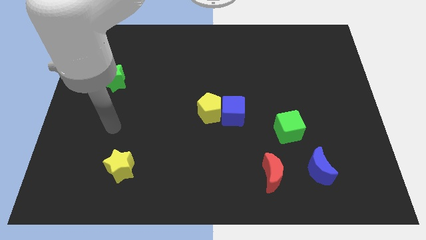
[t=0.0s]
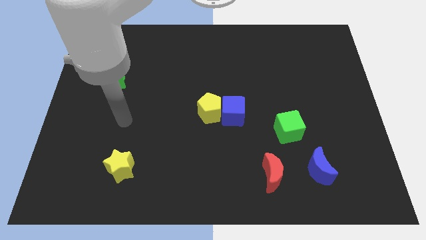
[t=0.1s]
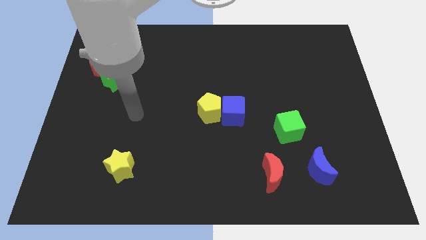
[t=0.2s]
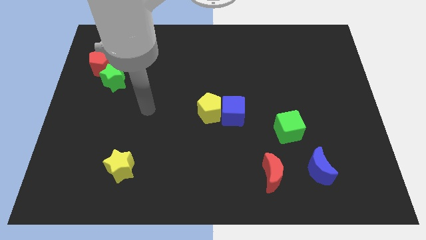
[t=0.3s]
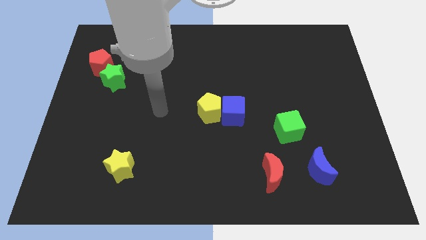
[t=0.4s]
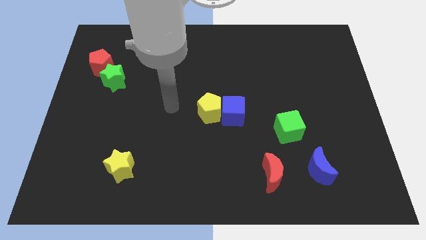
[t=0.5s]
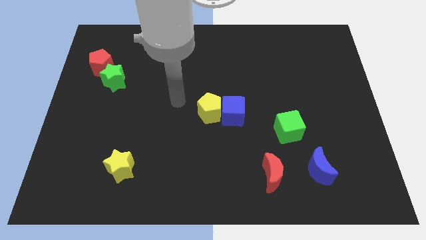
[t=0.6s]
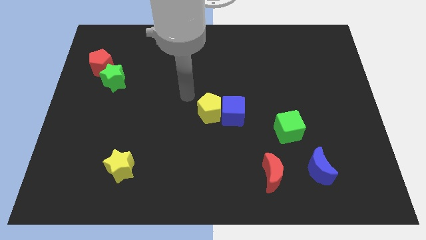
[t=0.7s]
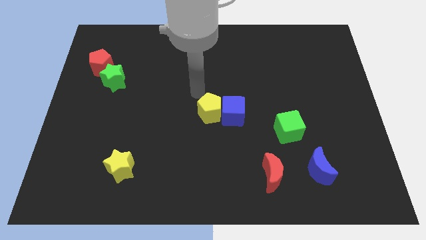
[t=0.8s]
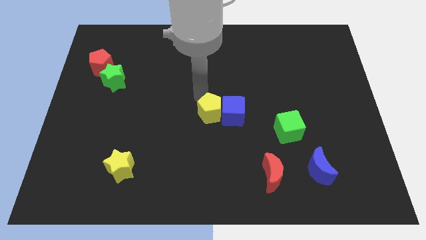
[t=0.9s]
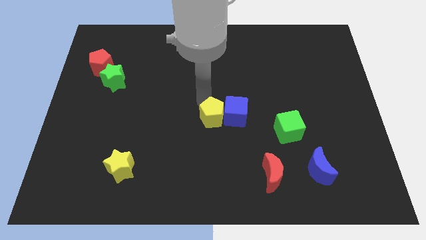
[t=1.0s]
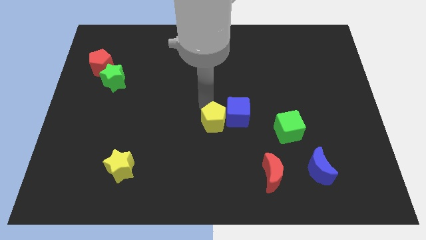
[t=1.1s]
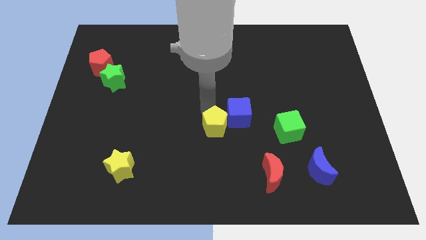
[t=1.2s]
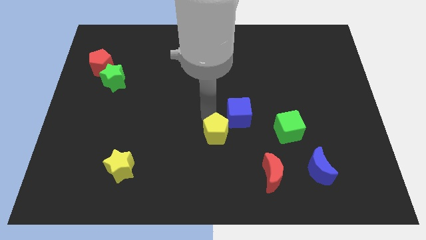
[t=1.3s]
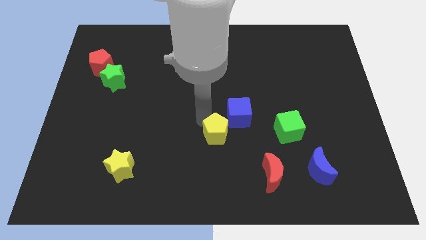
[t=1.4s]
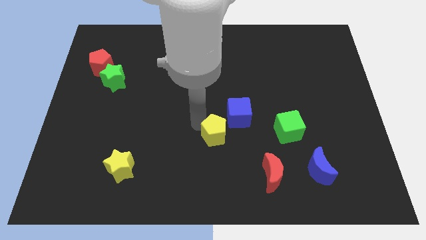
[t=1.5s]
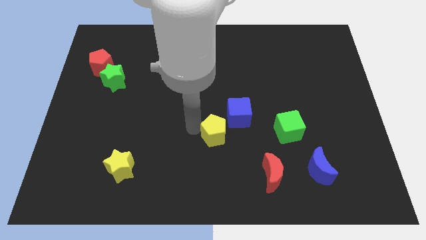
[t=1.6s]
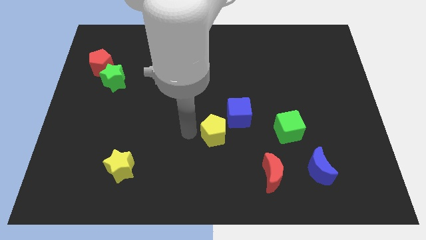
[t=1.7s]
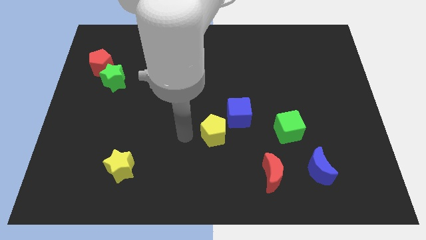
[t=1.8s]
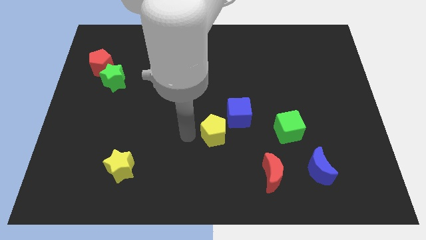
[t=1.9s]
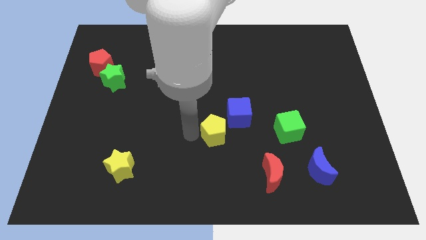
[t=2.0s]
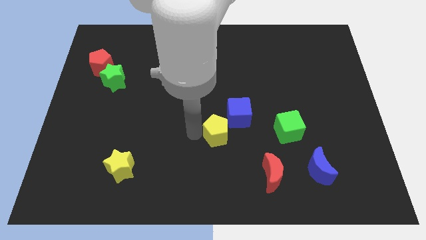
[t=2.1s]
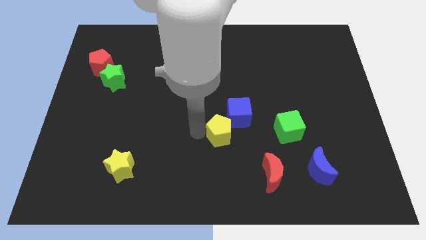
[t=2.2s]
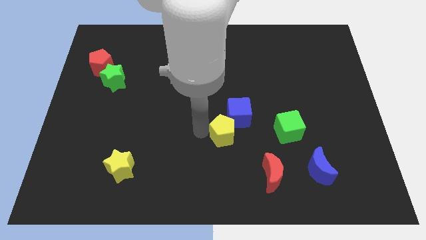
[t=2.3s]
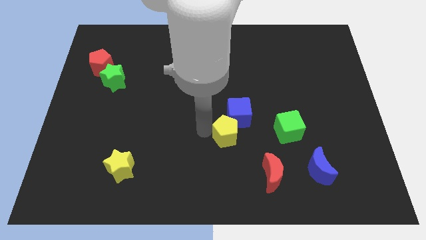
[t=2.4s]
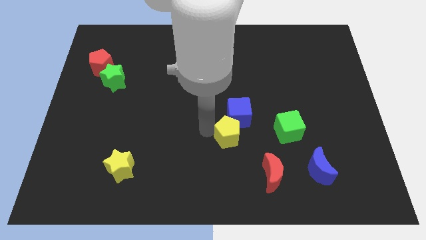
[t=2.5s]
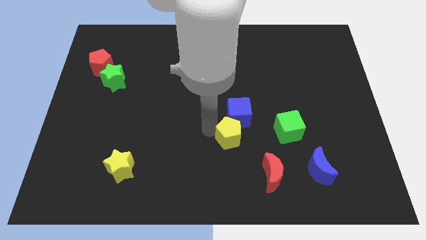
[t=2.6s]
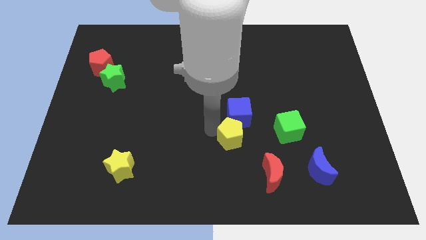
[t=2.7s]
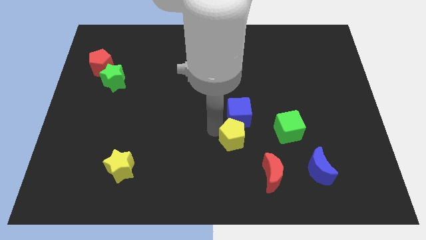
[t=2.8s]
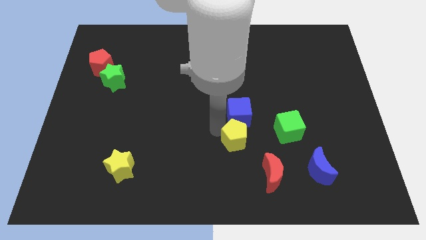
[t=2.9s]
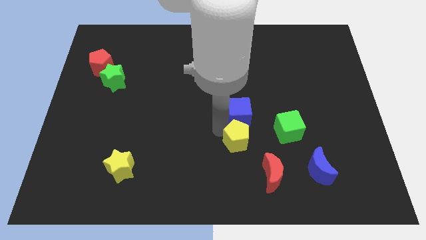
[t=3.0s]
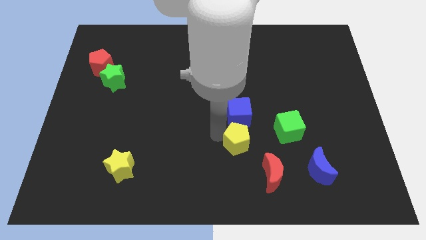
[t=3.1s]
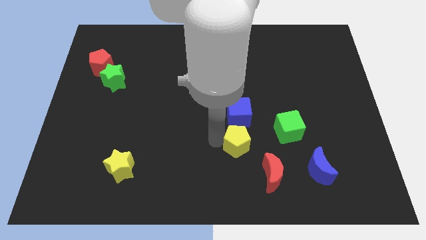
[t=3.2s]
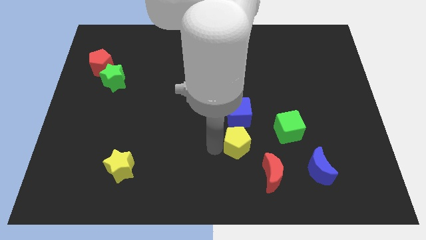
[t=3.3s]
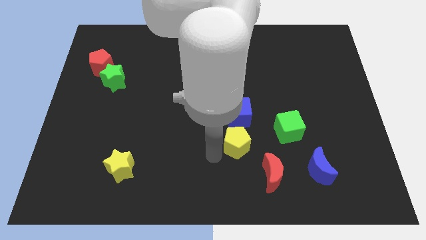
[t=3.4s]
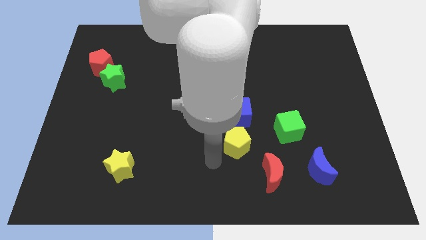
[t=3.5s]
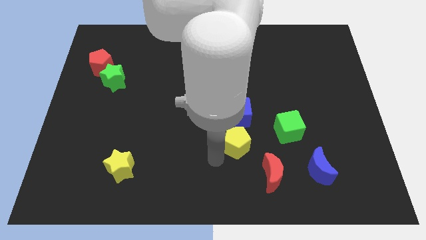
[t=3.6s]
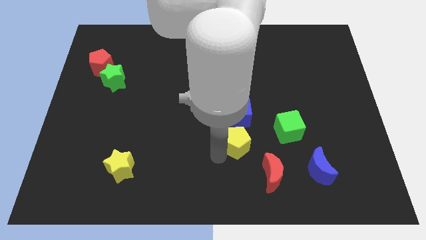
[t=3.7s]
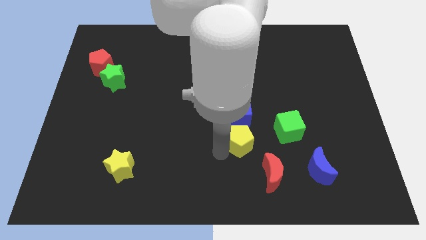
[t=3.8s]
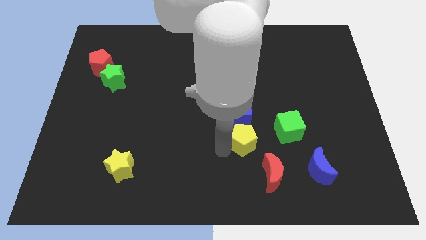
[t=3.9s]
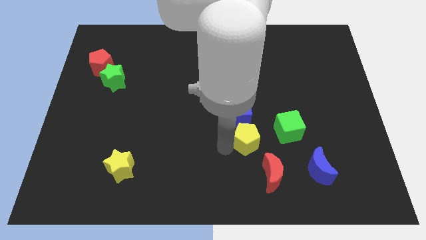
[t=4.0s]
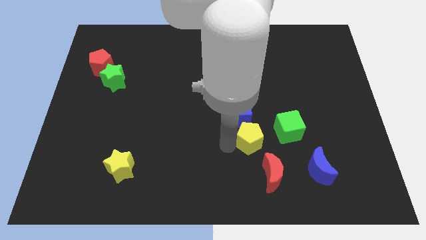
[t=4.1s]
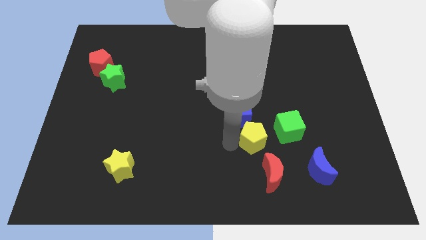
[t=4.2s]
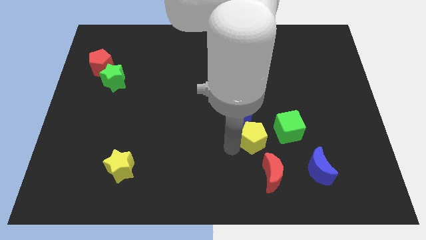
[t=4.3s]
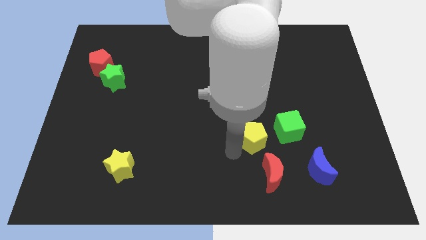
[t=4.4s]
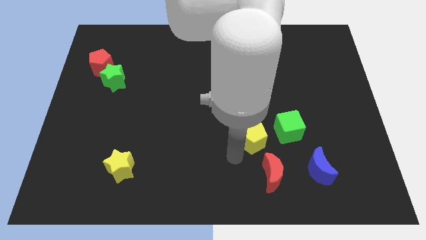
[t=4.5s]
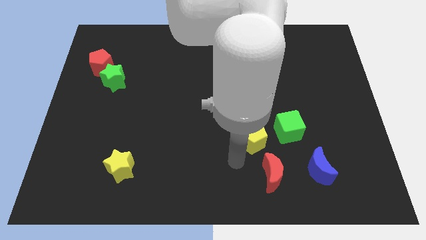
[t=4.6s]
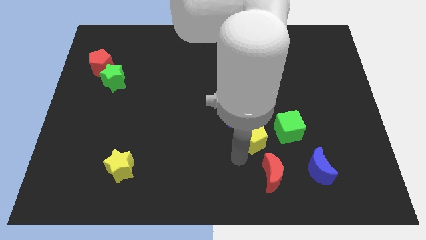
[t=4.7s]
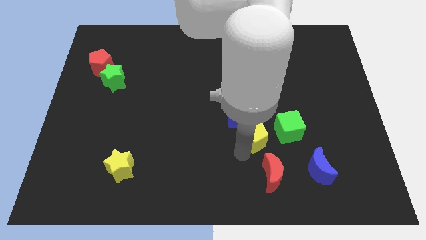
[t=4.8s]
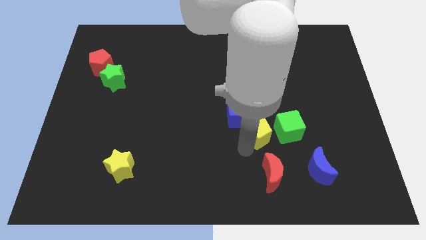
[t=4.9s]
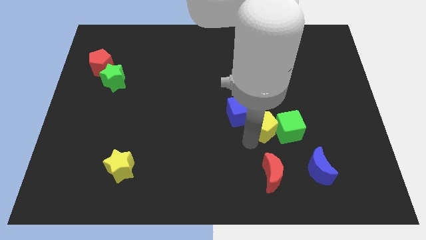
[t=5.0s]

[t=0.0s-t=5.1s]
slide the yellow pentagon just right of the blue cube

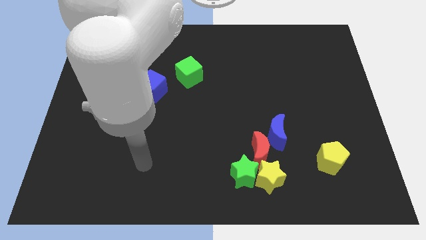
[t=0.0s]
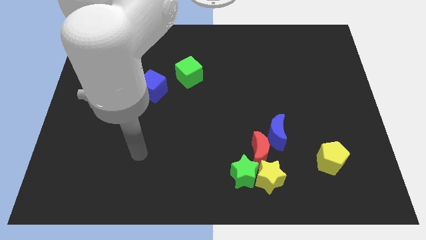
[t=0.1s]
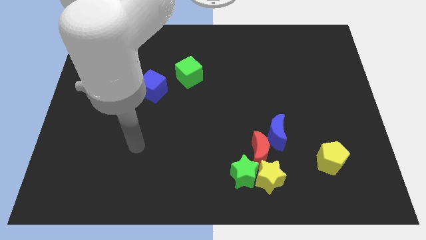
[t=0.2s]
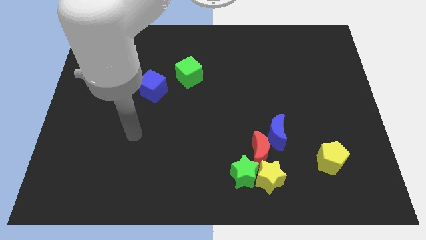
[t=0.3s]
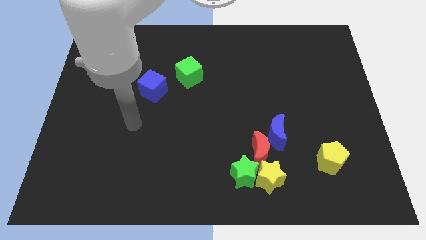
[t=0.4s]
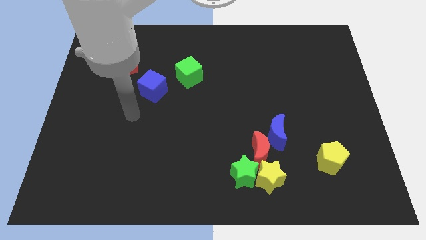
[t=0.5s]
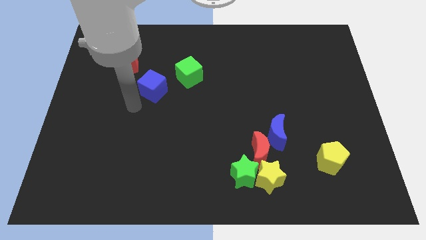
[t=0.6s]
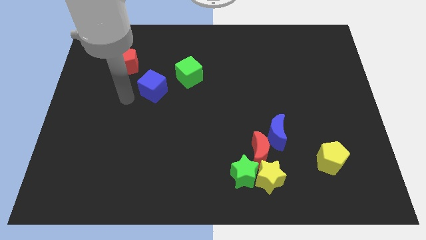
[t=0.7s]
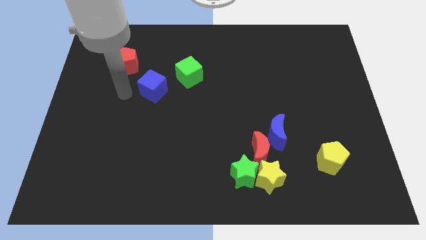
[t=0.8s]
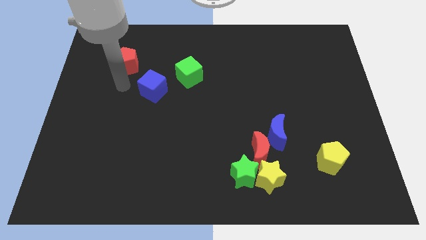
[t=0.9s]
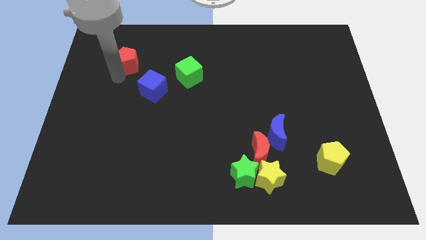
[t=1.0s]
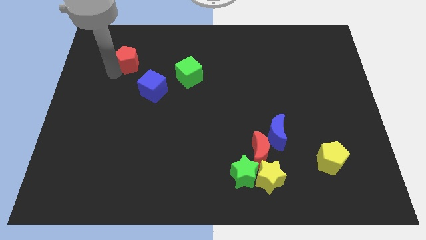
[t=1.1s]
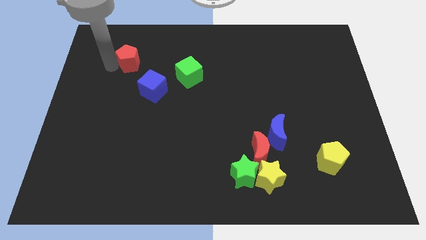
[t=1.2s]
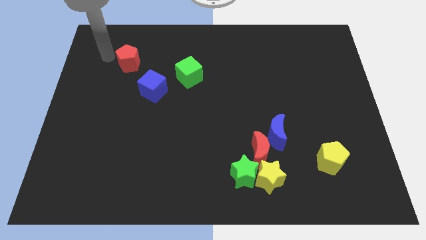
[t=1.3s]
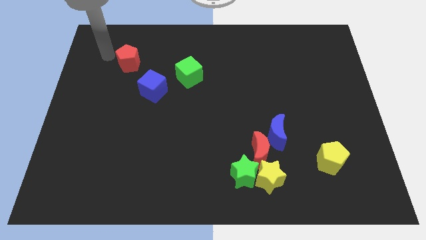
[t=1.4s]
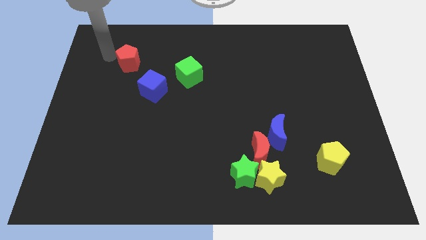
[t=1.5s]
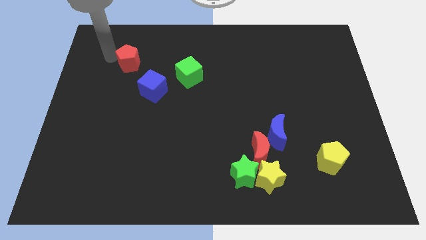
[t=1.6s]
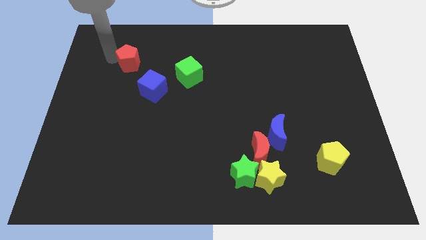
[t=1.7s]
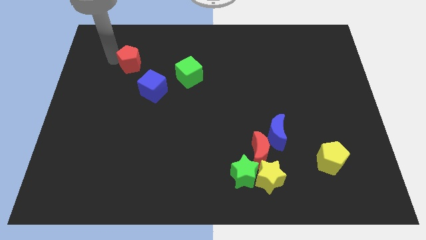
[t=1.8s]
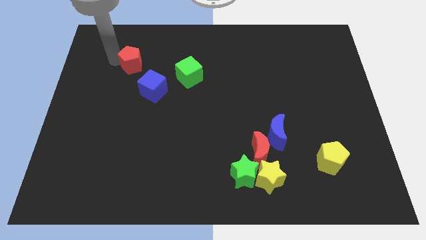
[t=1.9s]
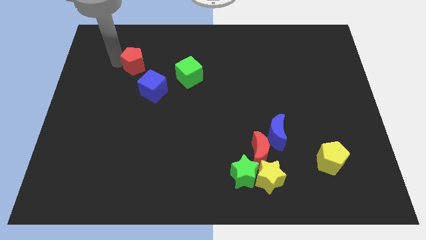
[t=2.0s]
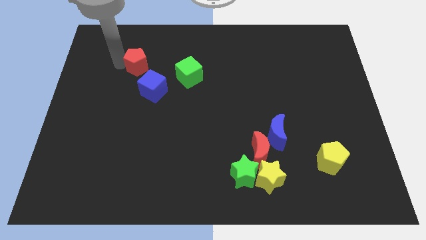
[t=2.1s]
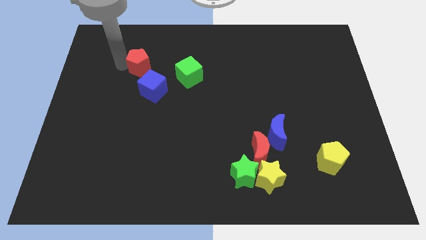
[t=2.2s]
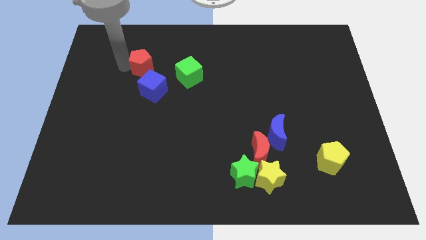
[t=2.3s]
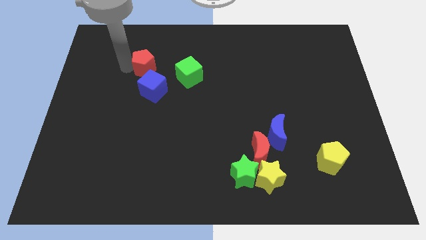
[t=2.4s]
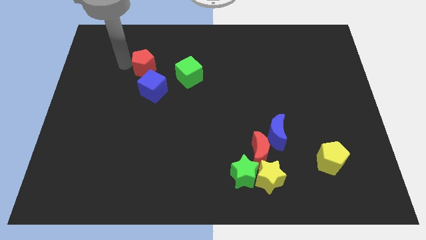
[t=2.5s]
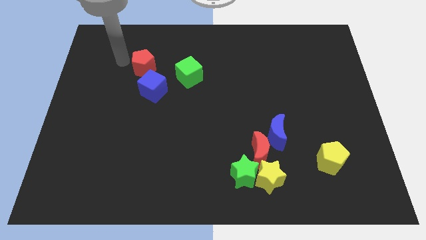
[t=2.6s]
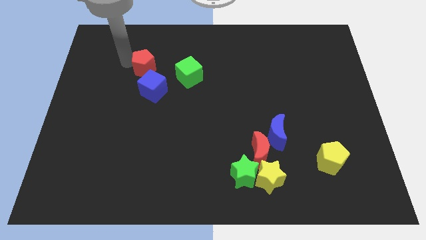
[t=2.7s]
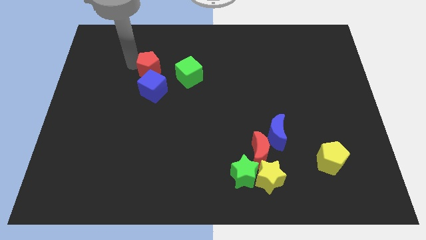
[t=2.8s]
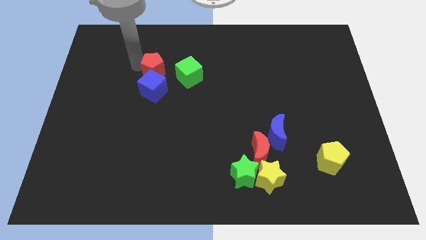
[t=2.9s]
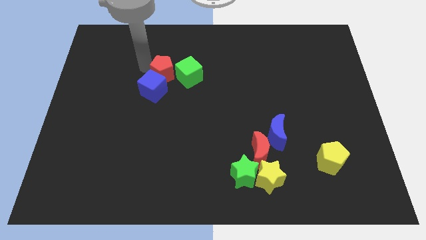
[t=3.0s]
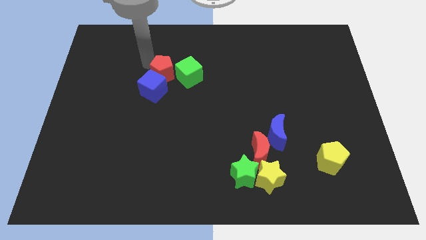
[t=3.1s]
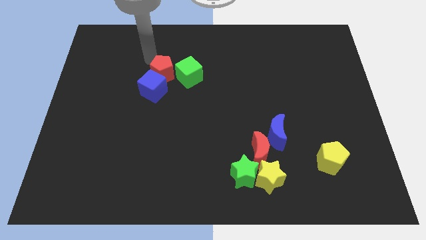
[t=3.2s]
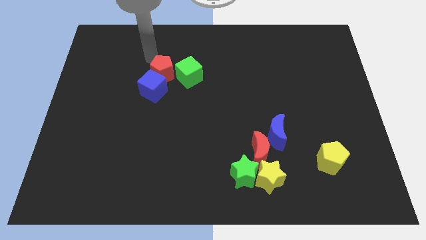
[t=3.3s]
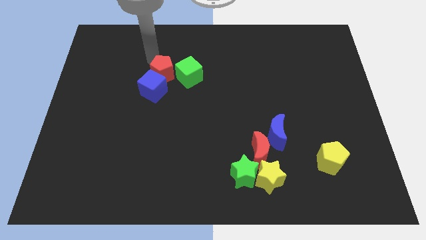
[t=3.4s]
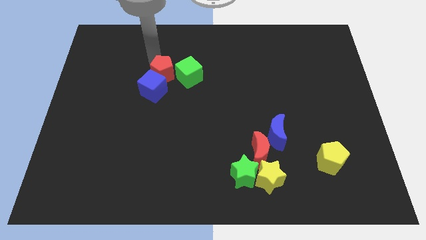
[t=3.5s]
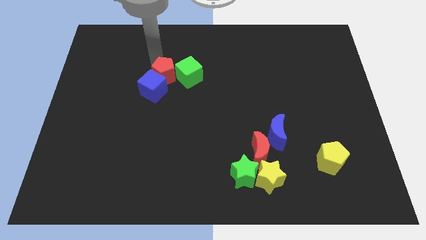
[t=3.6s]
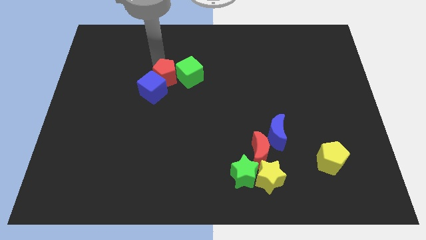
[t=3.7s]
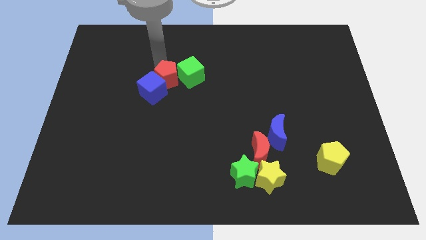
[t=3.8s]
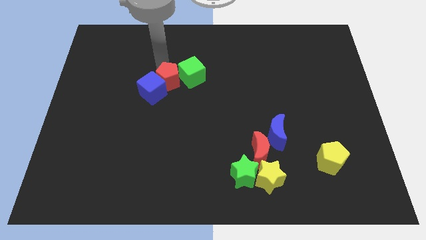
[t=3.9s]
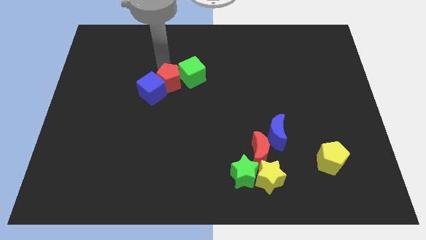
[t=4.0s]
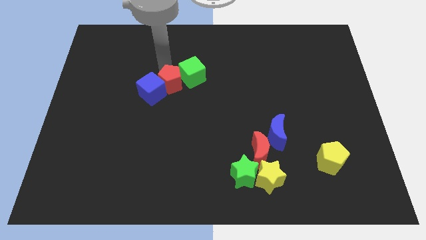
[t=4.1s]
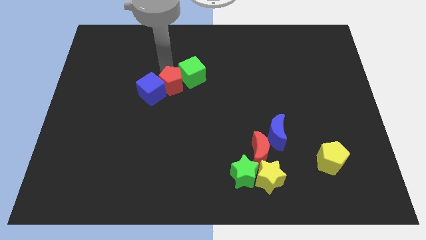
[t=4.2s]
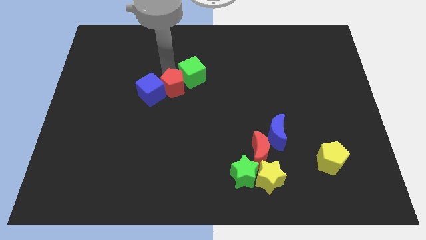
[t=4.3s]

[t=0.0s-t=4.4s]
slide the red pentagon to the bottom of the green cube
